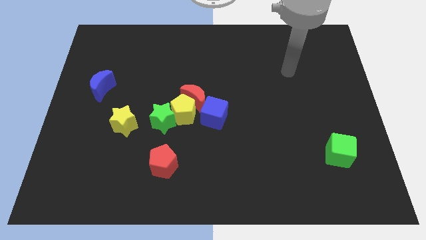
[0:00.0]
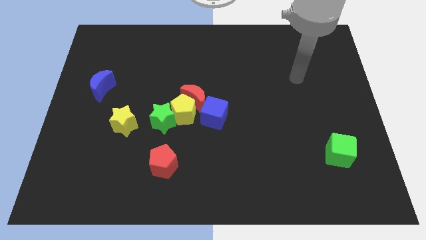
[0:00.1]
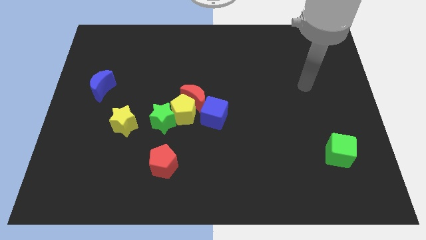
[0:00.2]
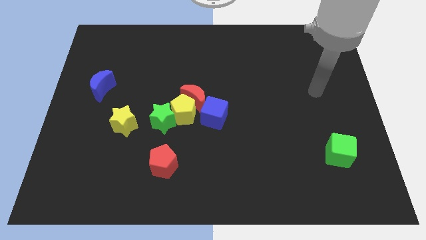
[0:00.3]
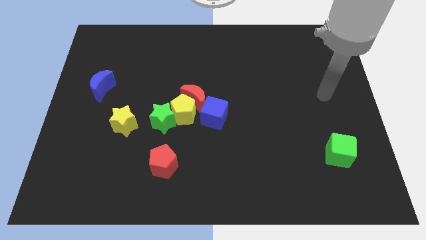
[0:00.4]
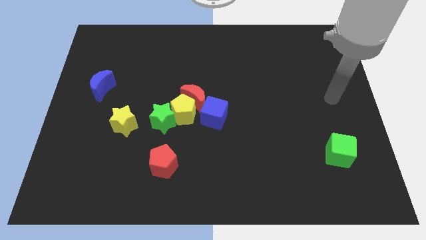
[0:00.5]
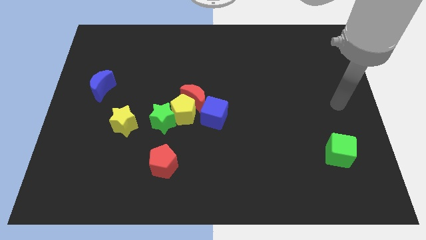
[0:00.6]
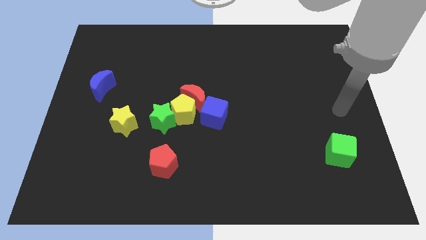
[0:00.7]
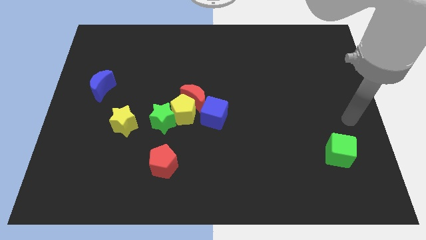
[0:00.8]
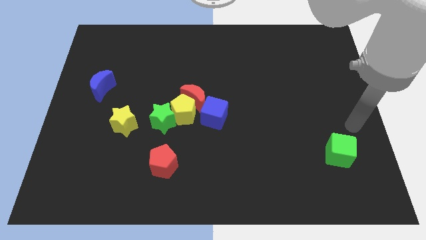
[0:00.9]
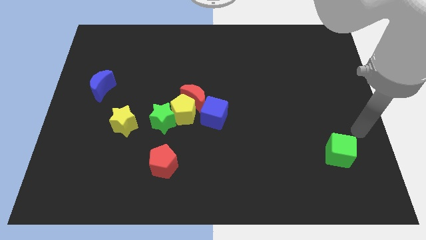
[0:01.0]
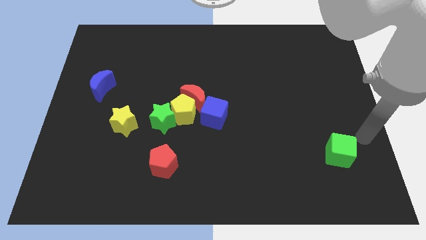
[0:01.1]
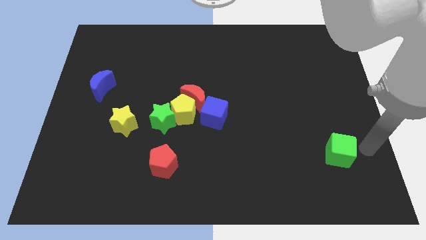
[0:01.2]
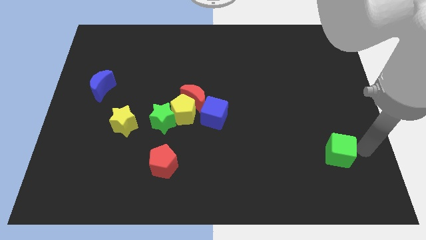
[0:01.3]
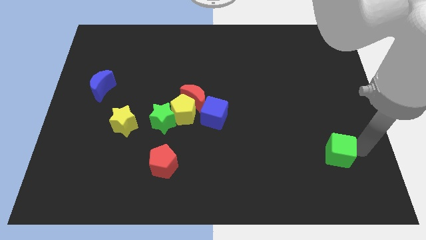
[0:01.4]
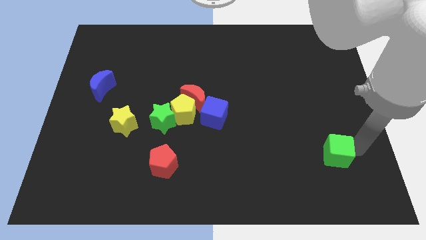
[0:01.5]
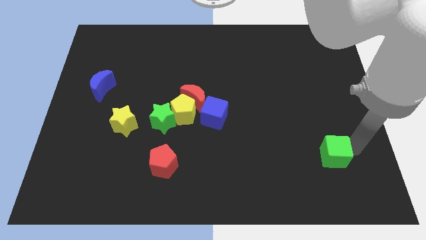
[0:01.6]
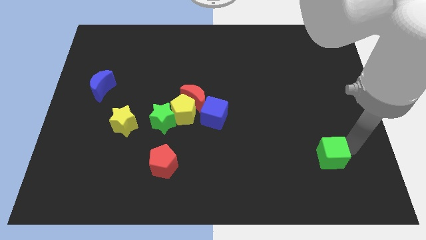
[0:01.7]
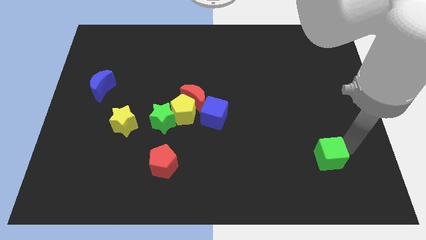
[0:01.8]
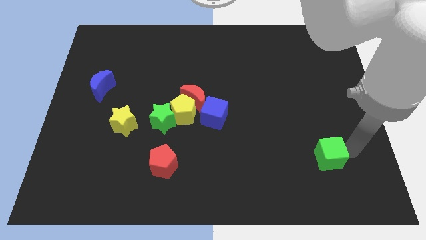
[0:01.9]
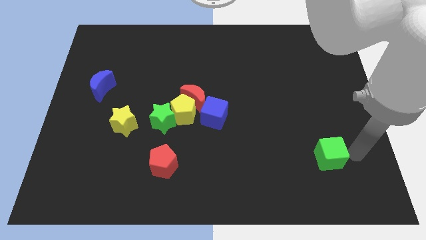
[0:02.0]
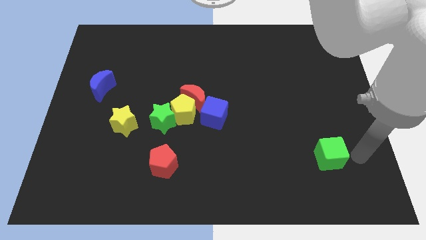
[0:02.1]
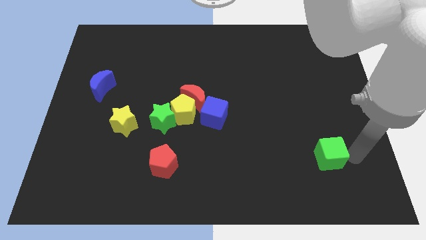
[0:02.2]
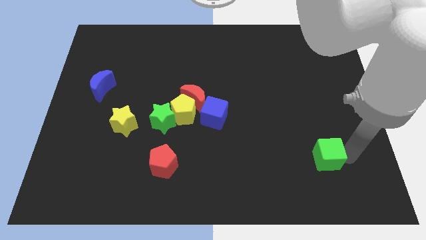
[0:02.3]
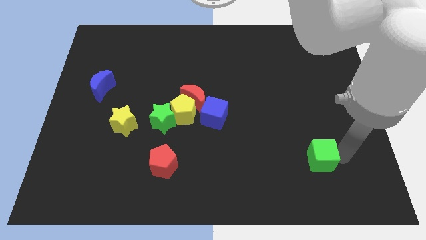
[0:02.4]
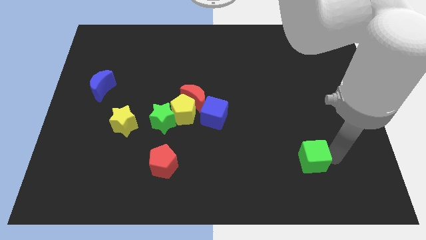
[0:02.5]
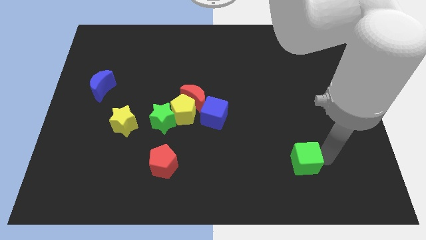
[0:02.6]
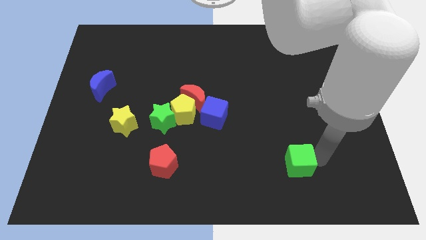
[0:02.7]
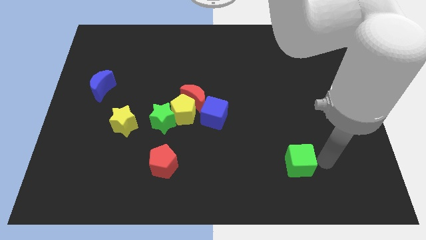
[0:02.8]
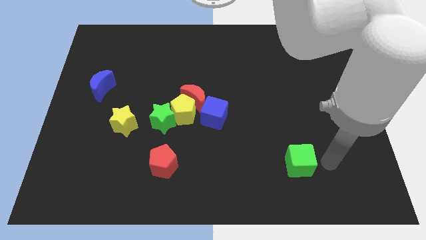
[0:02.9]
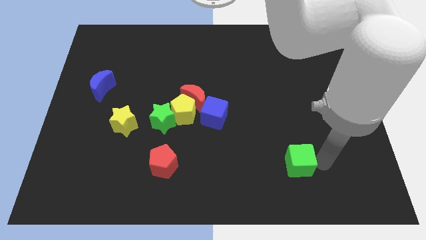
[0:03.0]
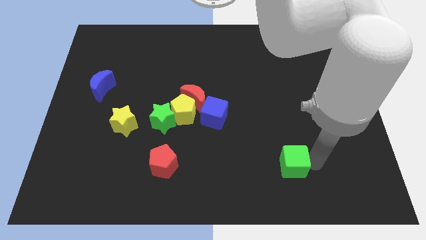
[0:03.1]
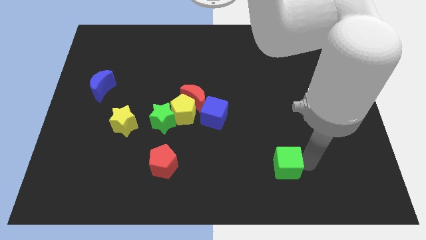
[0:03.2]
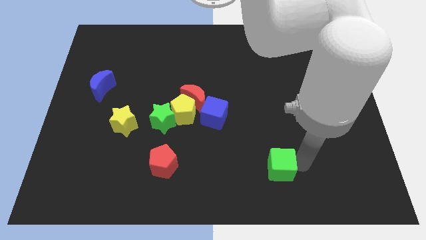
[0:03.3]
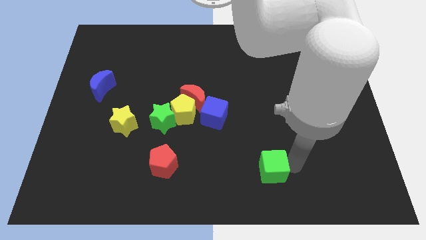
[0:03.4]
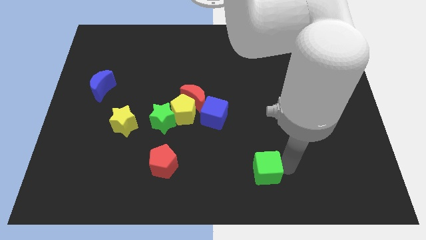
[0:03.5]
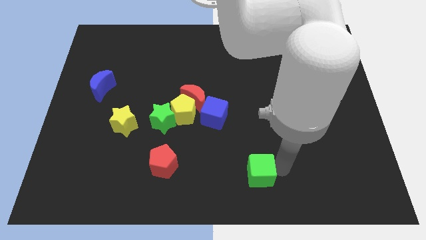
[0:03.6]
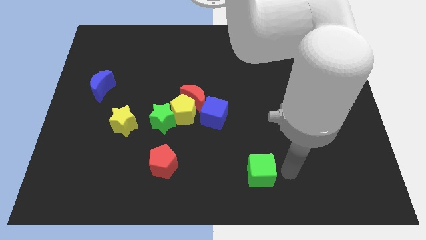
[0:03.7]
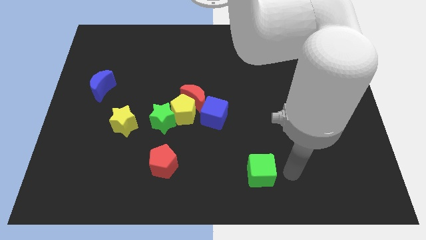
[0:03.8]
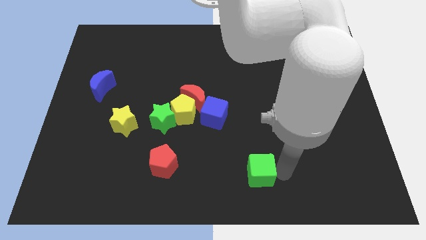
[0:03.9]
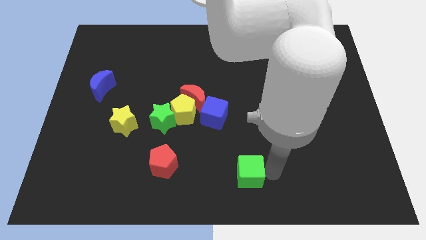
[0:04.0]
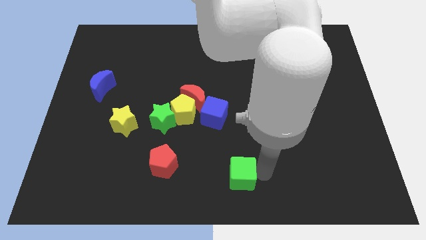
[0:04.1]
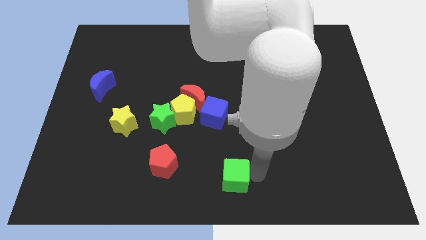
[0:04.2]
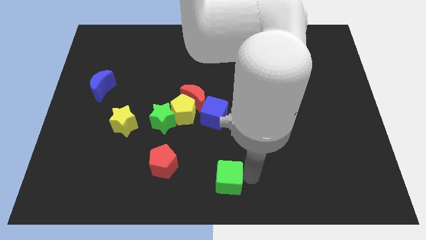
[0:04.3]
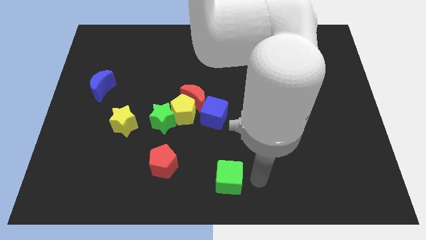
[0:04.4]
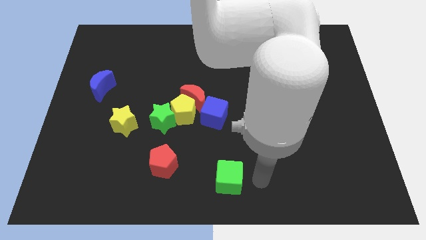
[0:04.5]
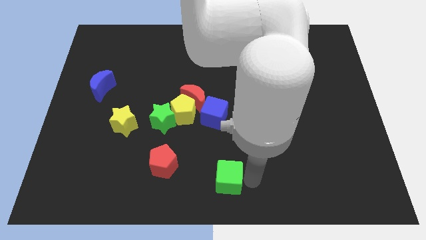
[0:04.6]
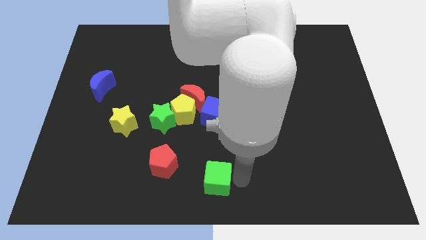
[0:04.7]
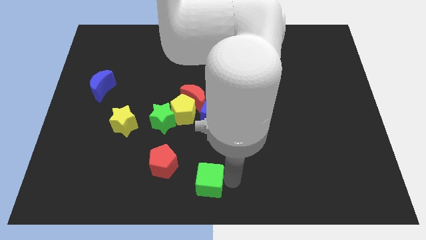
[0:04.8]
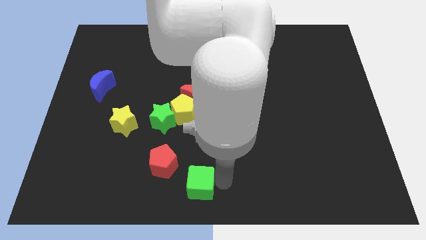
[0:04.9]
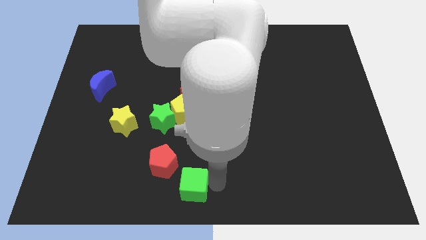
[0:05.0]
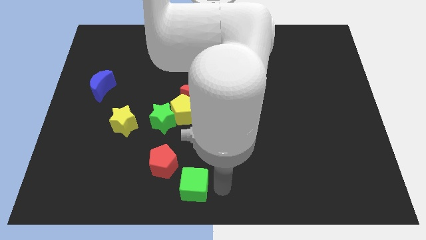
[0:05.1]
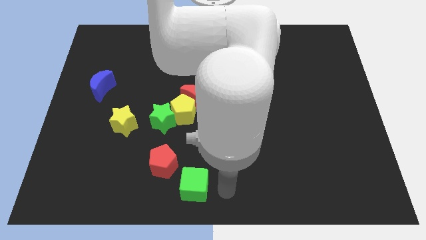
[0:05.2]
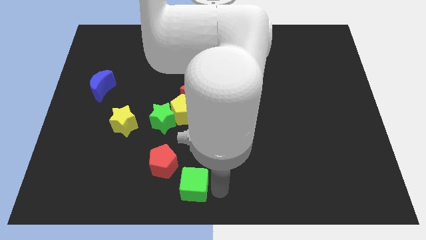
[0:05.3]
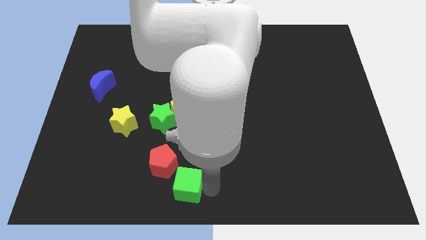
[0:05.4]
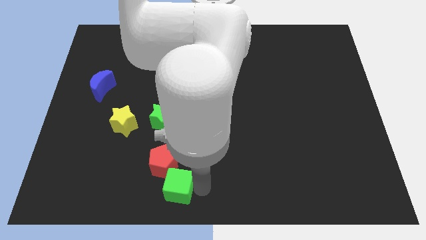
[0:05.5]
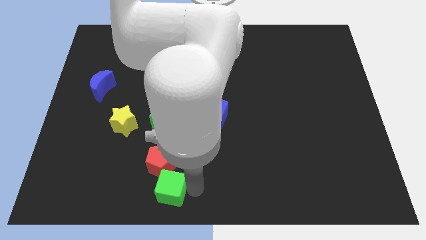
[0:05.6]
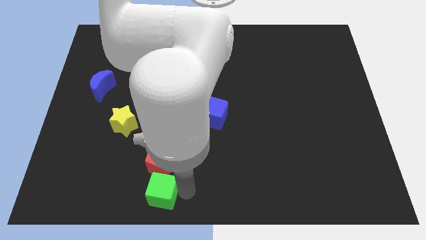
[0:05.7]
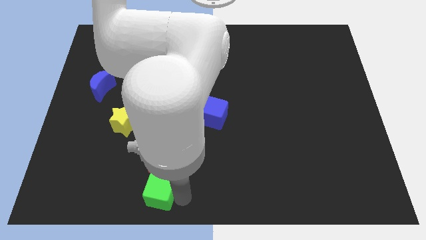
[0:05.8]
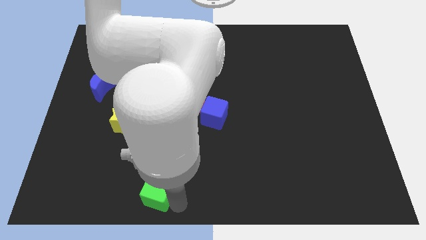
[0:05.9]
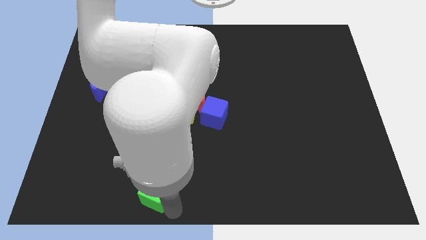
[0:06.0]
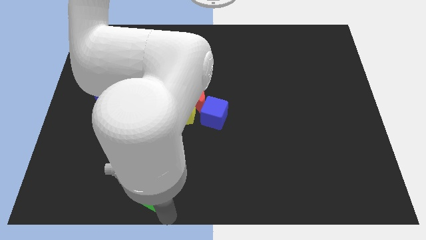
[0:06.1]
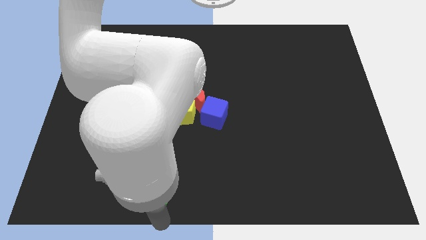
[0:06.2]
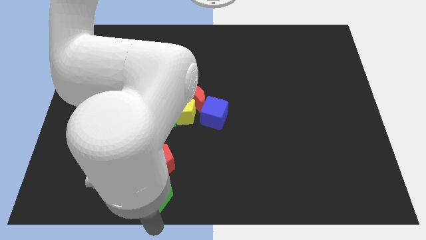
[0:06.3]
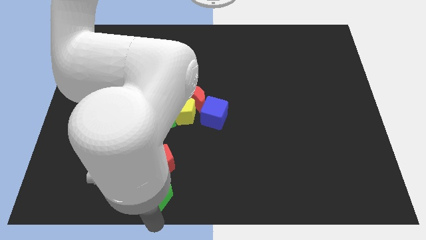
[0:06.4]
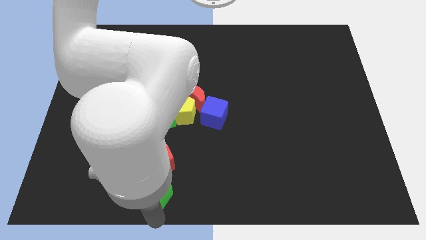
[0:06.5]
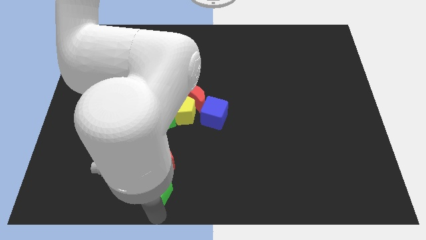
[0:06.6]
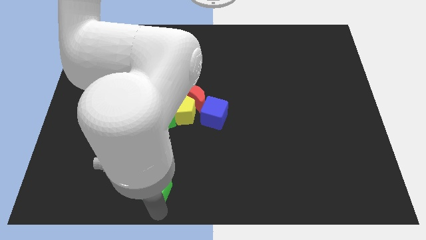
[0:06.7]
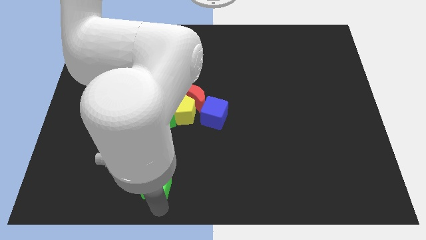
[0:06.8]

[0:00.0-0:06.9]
put the green cube below the green star

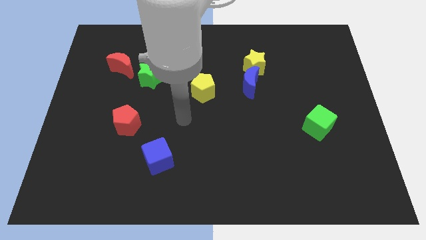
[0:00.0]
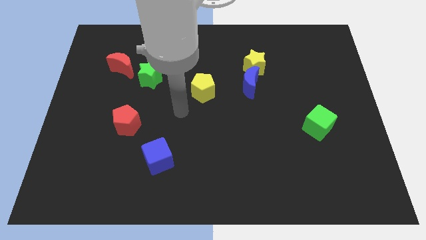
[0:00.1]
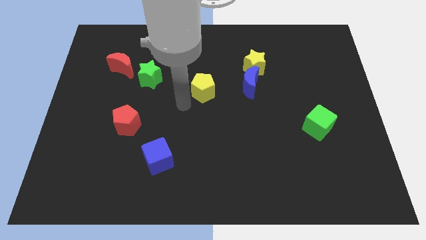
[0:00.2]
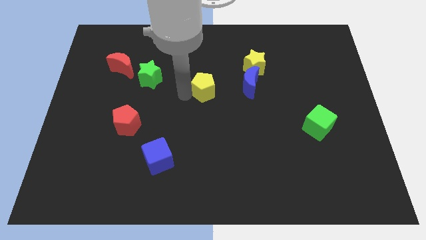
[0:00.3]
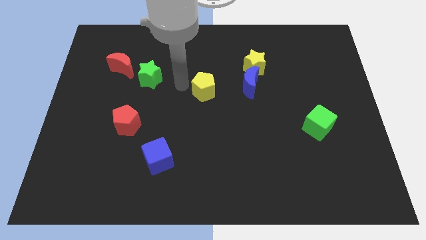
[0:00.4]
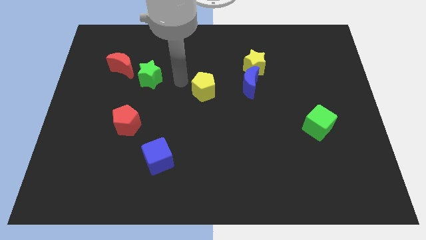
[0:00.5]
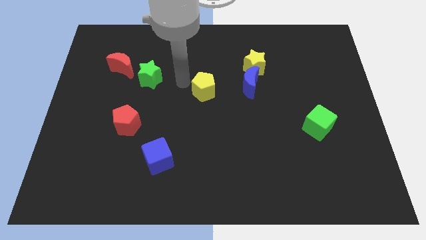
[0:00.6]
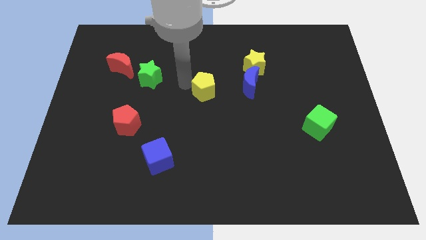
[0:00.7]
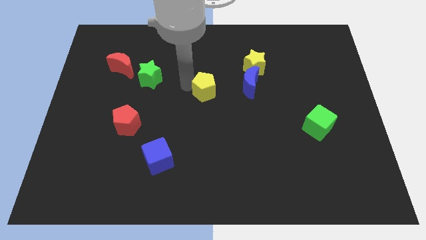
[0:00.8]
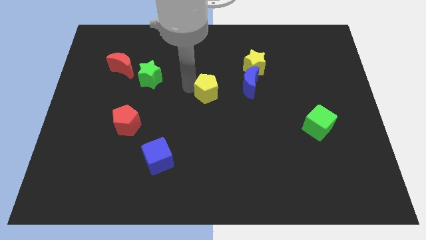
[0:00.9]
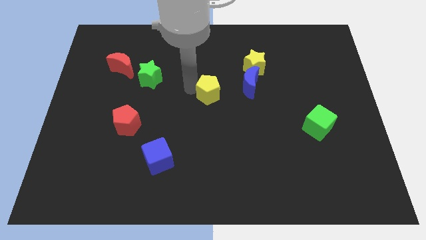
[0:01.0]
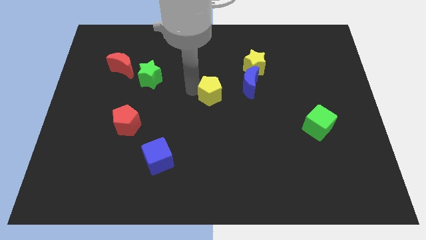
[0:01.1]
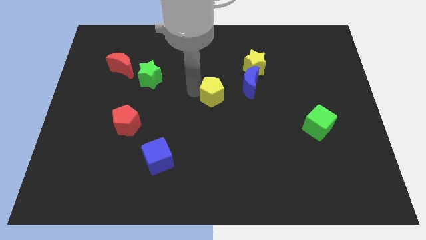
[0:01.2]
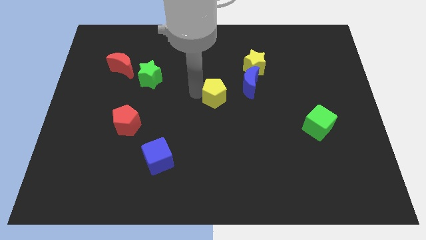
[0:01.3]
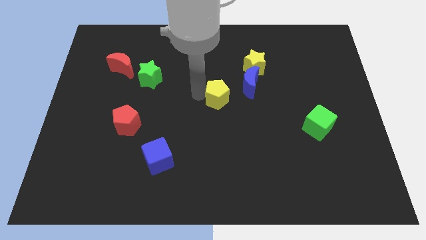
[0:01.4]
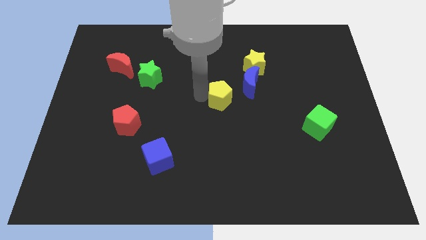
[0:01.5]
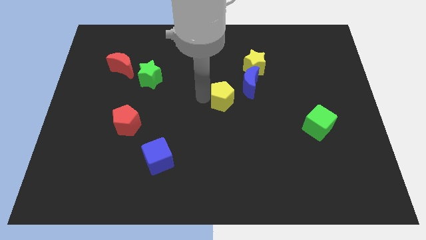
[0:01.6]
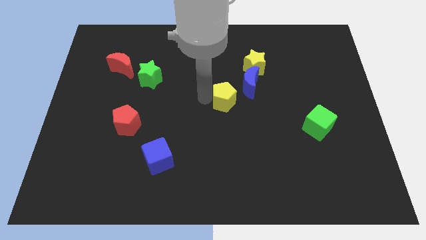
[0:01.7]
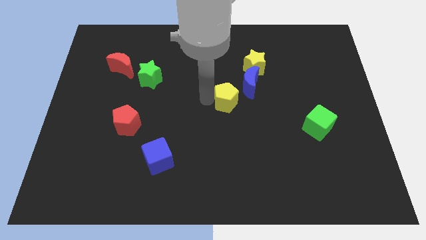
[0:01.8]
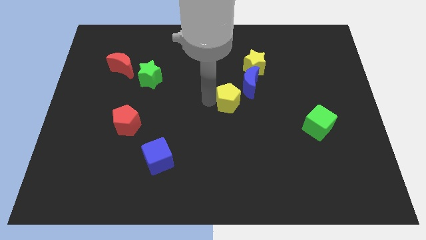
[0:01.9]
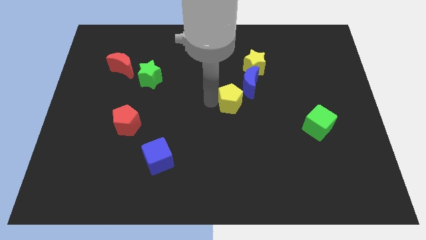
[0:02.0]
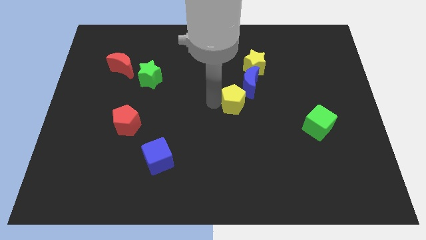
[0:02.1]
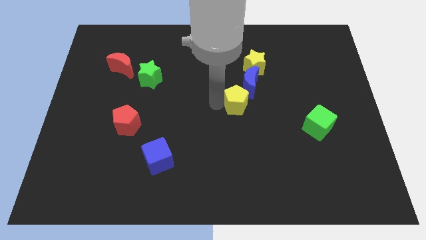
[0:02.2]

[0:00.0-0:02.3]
slide the yellow pentagon below the yellow star
